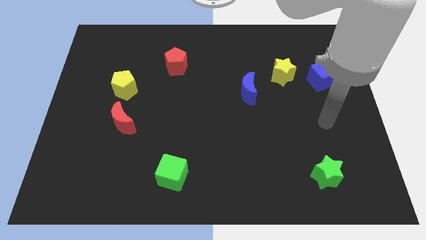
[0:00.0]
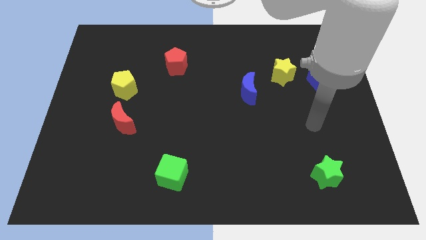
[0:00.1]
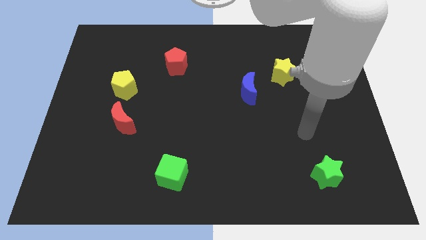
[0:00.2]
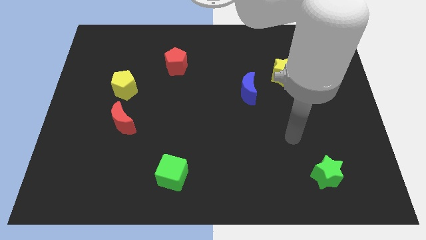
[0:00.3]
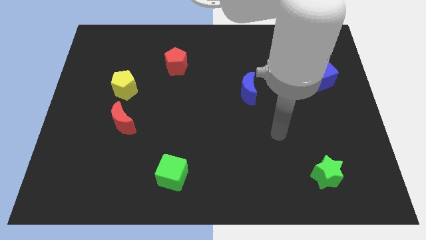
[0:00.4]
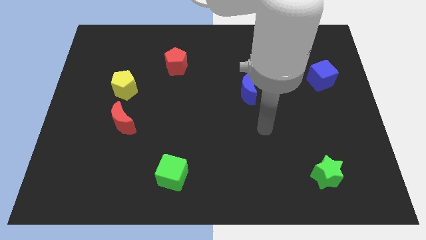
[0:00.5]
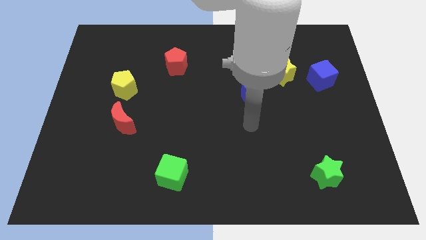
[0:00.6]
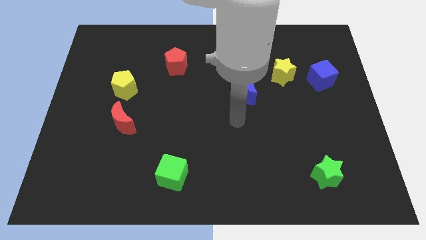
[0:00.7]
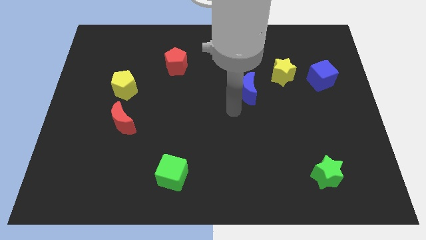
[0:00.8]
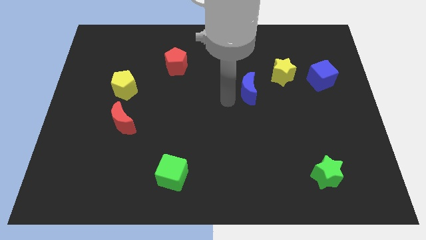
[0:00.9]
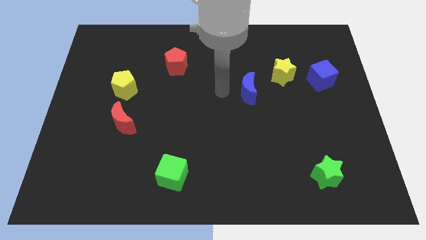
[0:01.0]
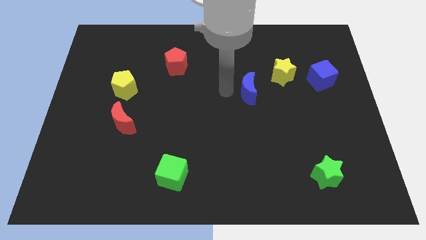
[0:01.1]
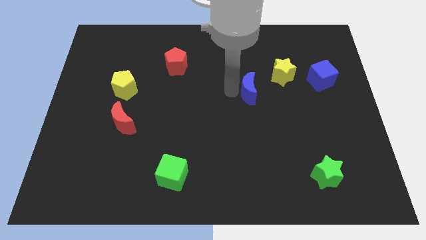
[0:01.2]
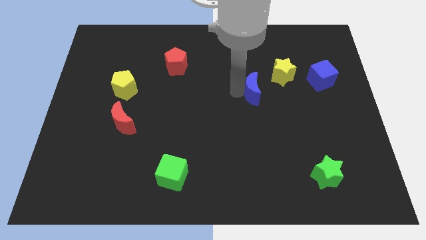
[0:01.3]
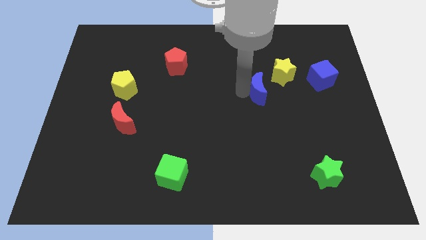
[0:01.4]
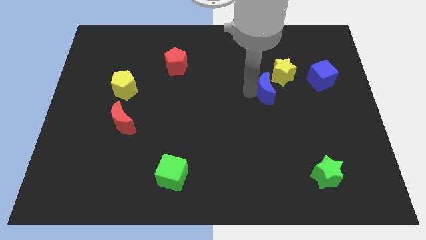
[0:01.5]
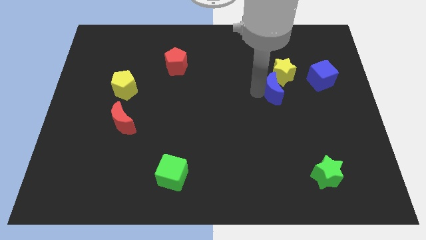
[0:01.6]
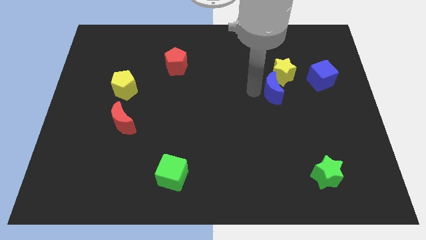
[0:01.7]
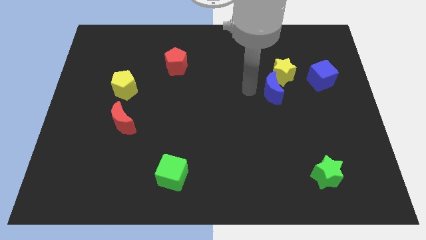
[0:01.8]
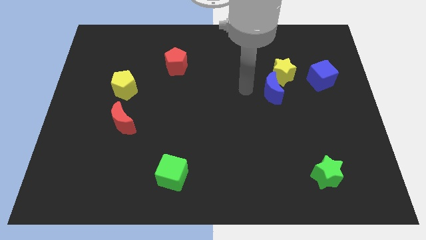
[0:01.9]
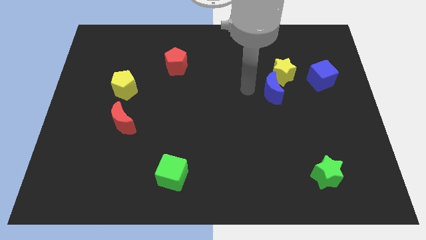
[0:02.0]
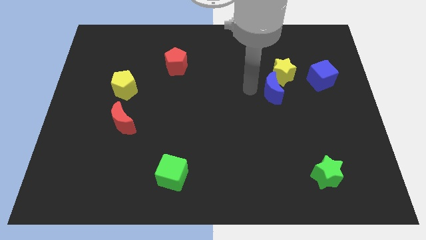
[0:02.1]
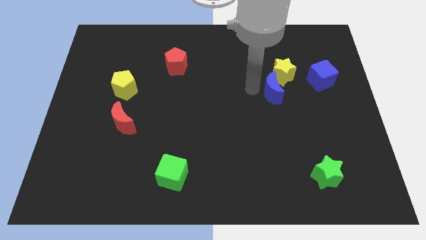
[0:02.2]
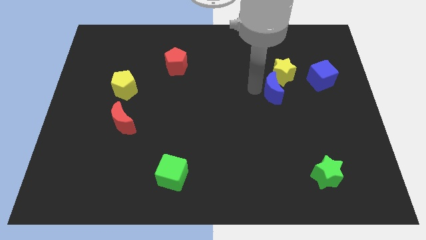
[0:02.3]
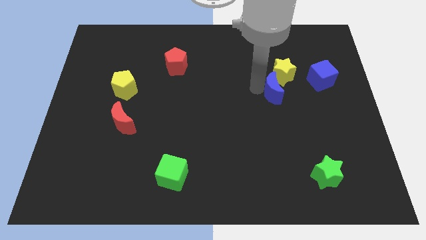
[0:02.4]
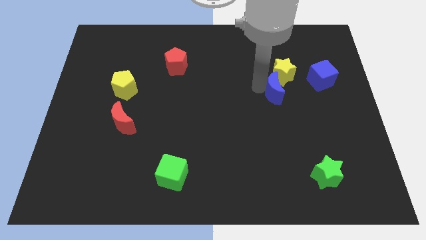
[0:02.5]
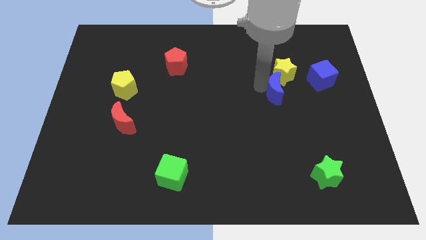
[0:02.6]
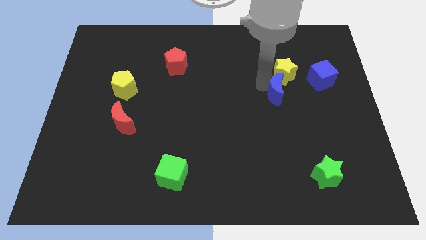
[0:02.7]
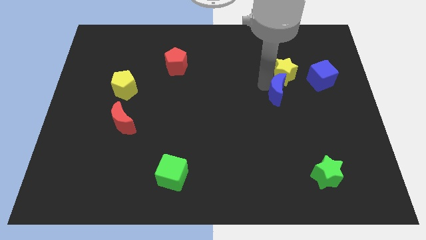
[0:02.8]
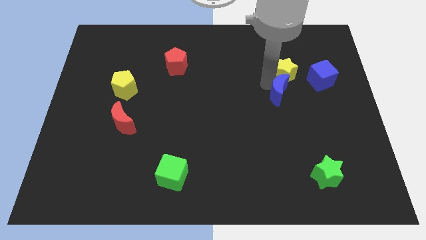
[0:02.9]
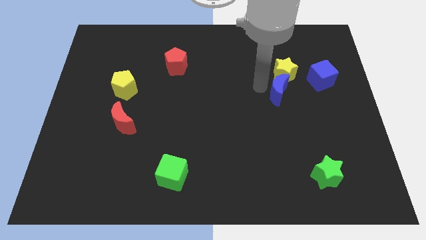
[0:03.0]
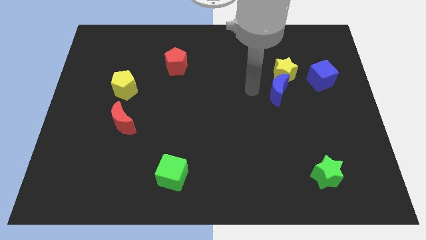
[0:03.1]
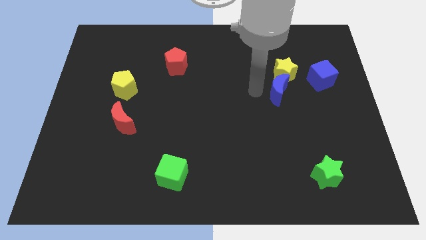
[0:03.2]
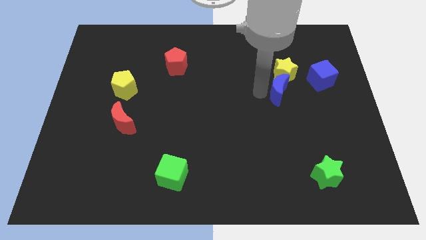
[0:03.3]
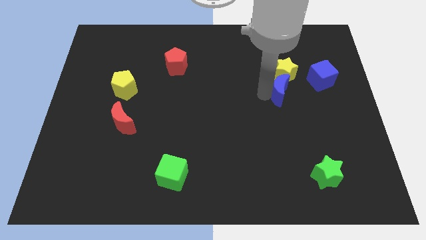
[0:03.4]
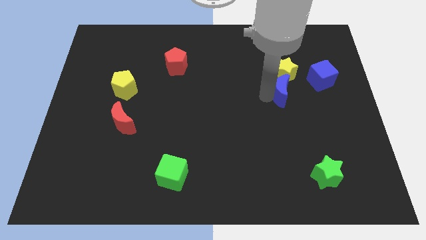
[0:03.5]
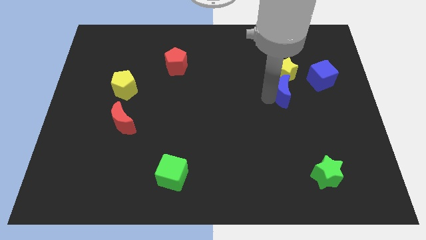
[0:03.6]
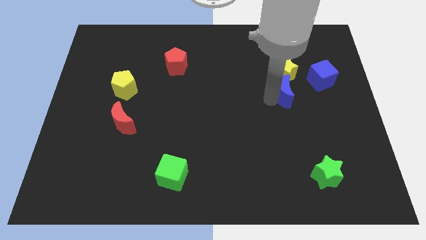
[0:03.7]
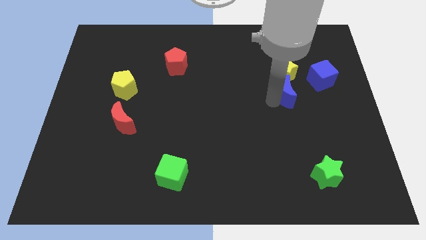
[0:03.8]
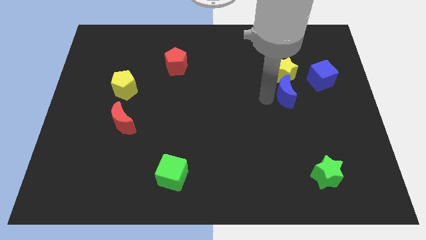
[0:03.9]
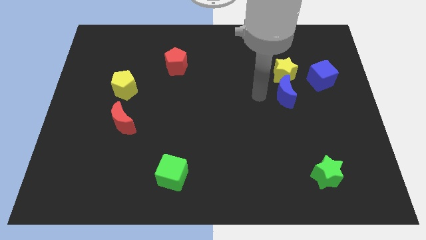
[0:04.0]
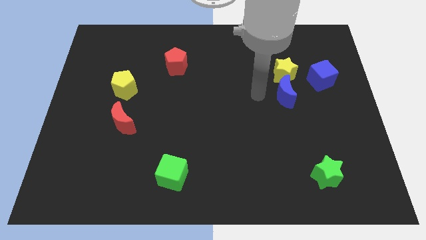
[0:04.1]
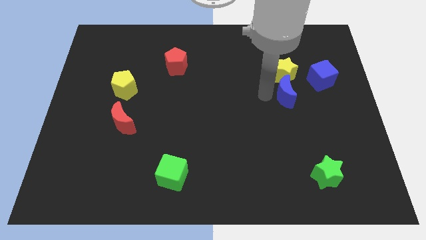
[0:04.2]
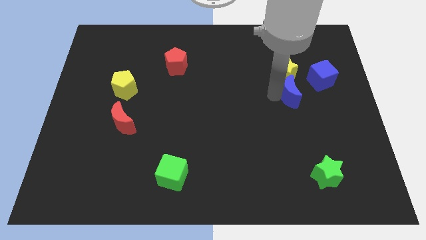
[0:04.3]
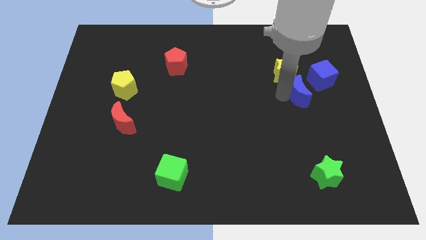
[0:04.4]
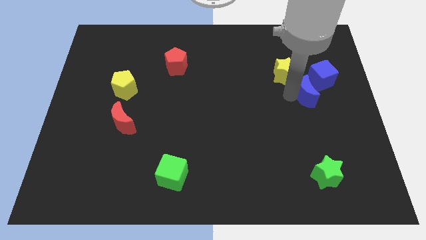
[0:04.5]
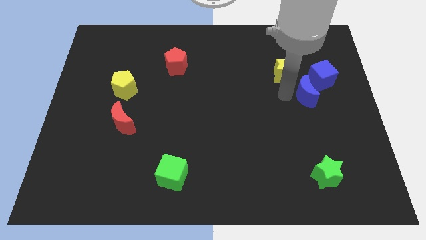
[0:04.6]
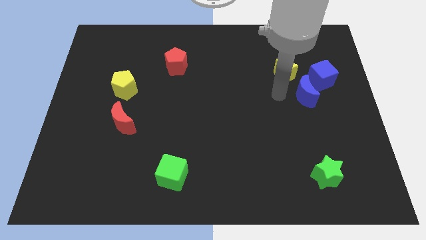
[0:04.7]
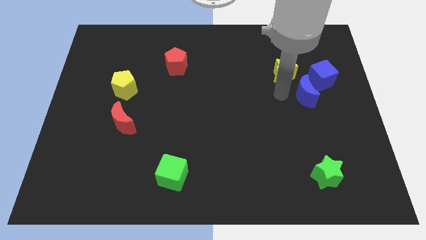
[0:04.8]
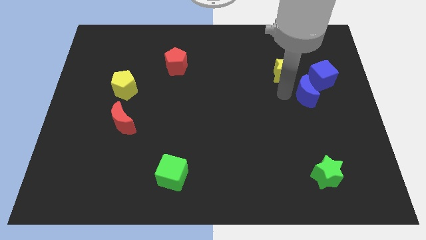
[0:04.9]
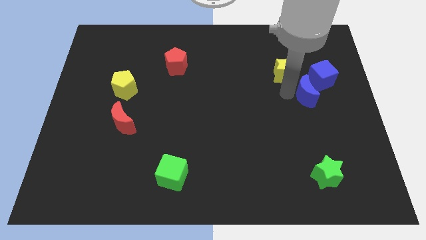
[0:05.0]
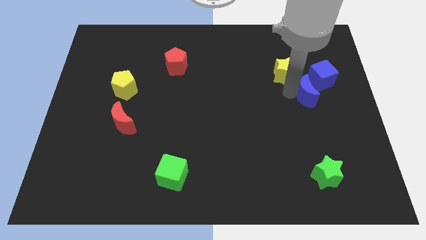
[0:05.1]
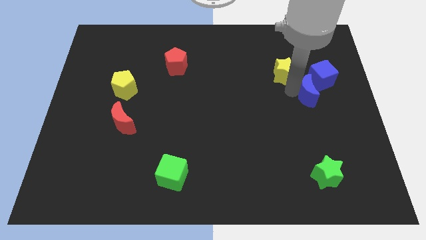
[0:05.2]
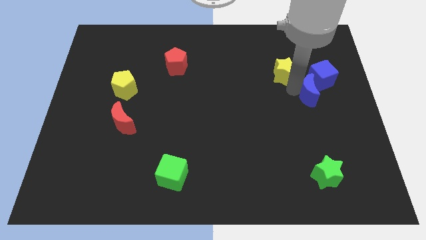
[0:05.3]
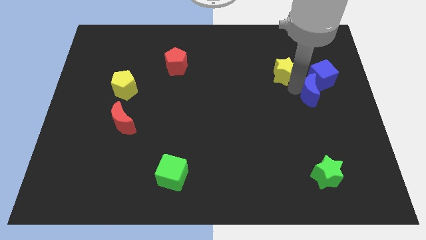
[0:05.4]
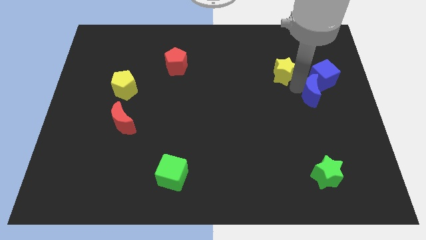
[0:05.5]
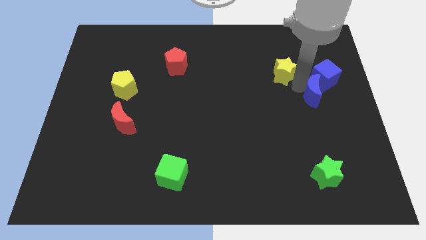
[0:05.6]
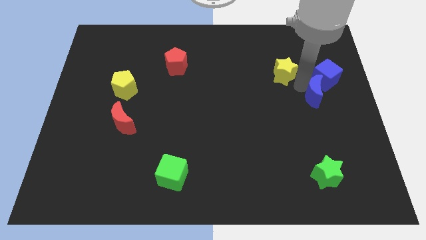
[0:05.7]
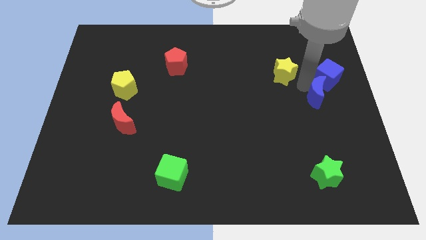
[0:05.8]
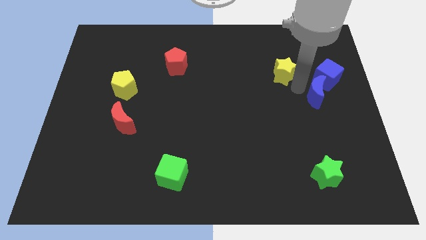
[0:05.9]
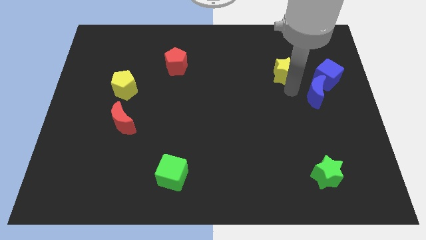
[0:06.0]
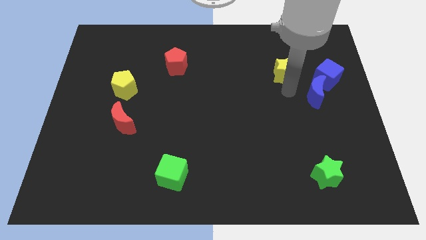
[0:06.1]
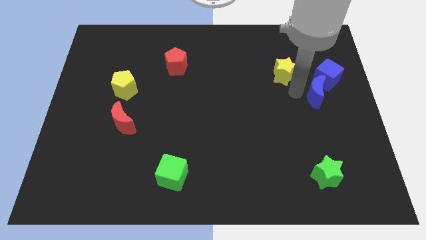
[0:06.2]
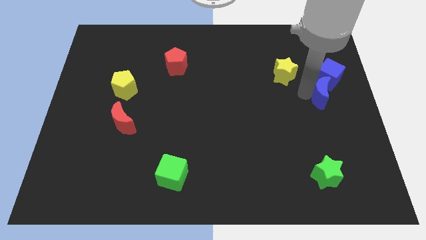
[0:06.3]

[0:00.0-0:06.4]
push the blue moon to the center right
